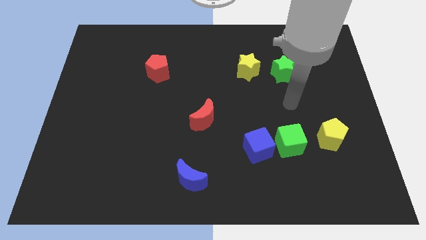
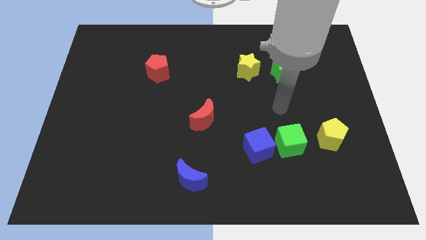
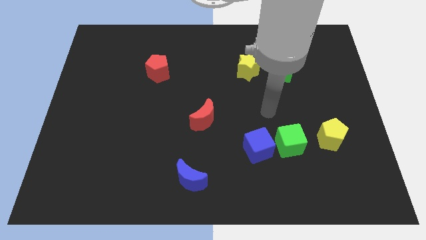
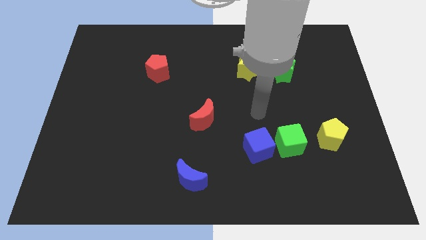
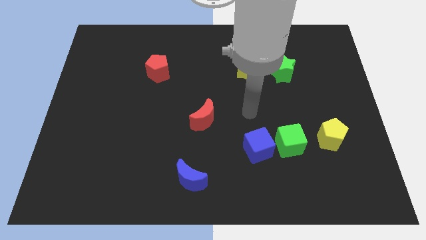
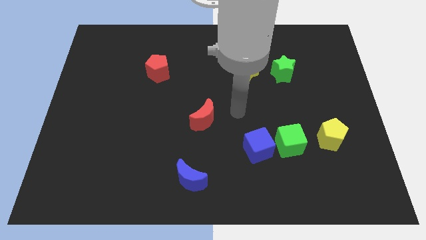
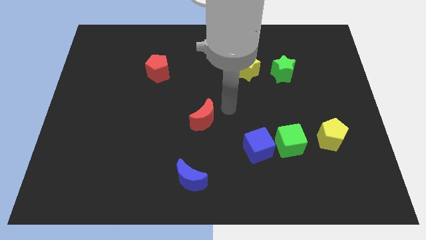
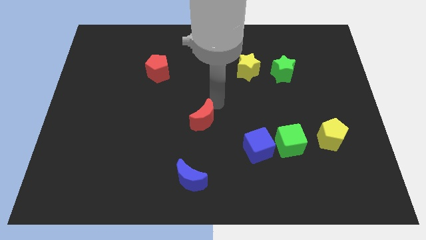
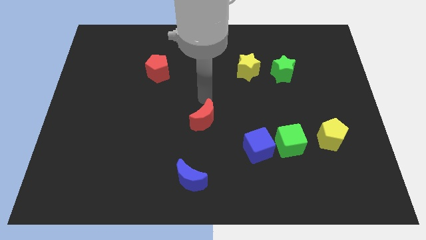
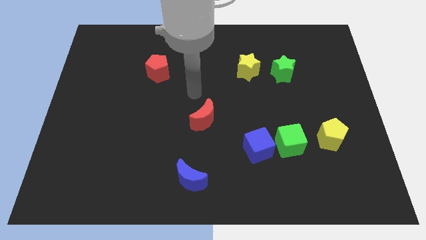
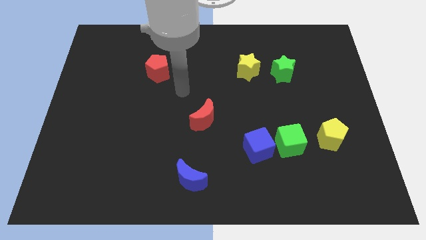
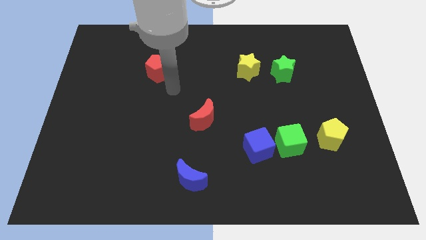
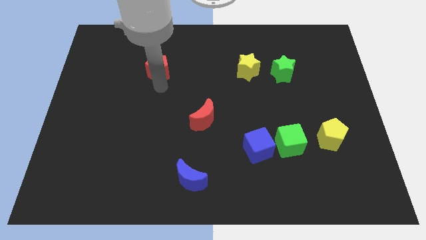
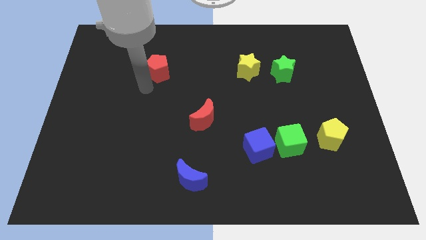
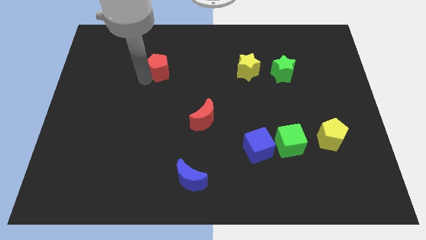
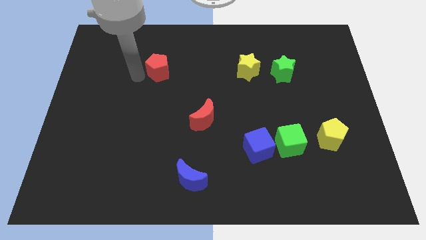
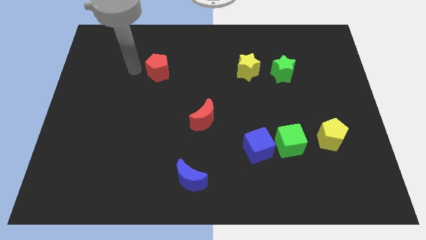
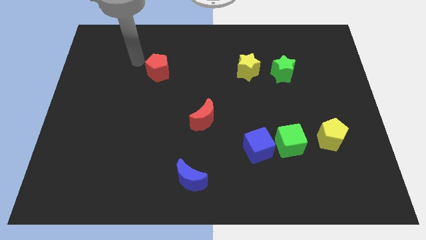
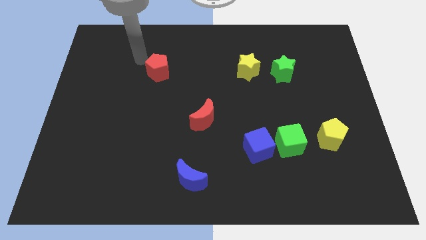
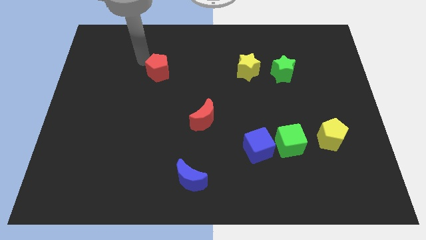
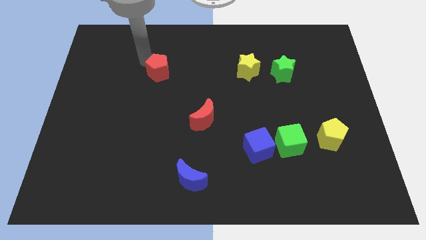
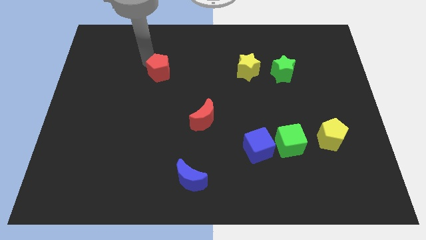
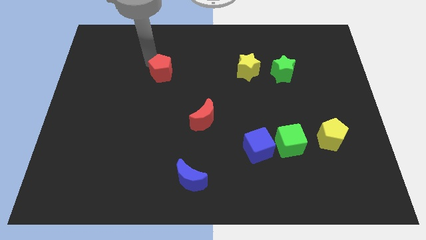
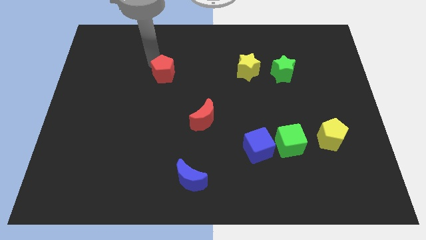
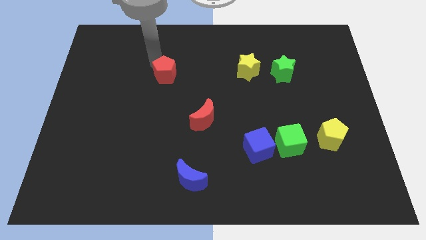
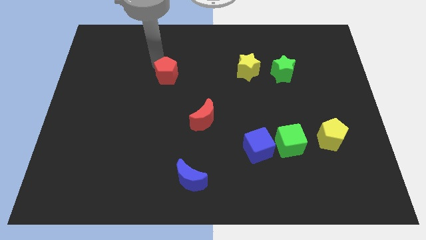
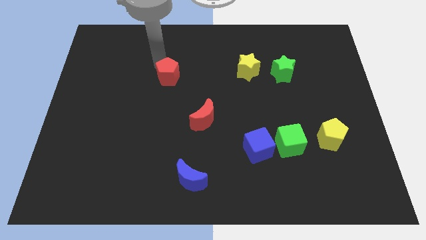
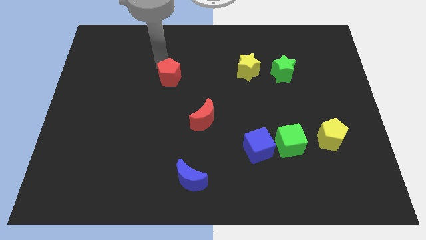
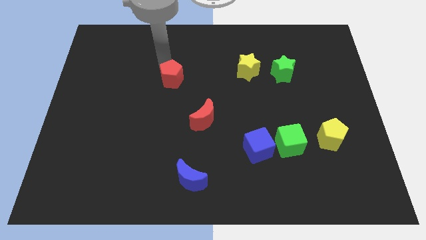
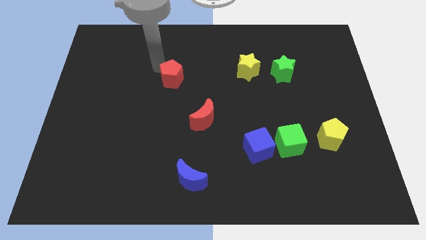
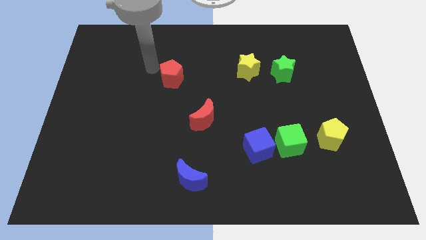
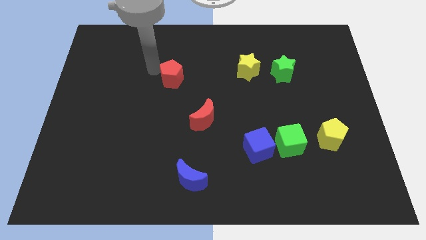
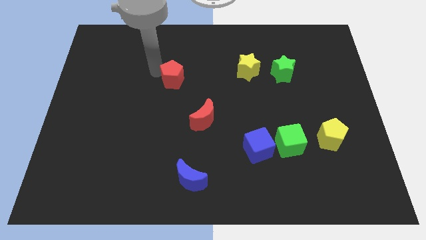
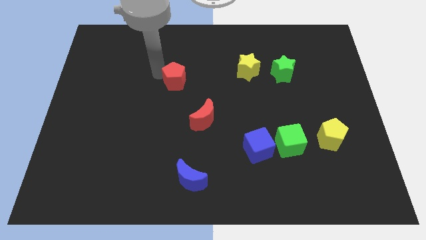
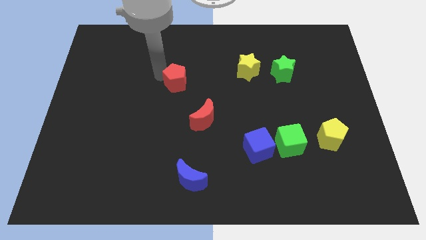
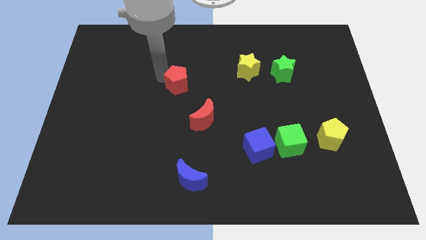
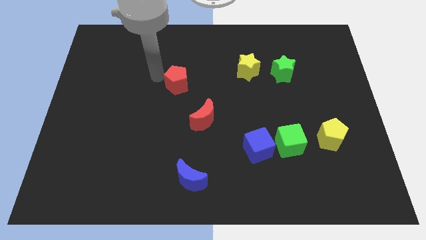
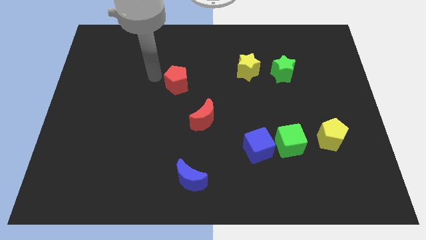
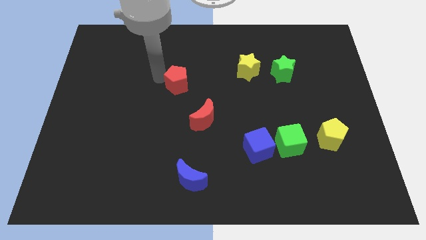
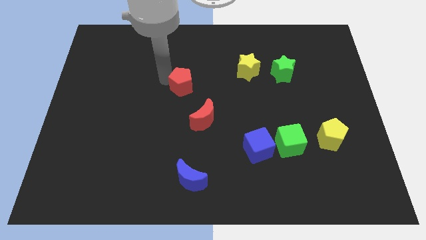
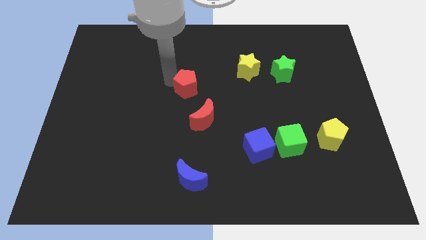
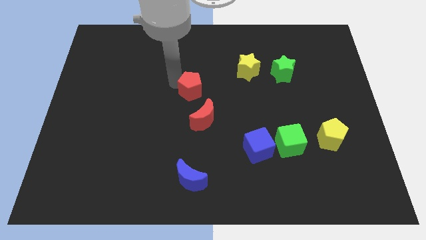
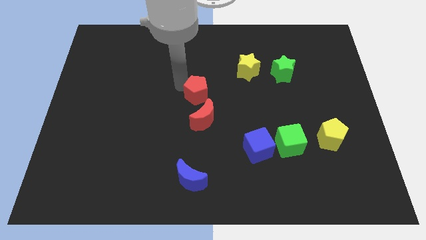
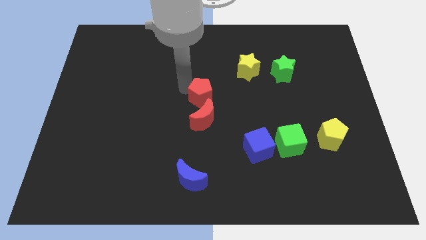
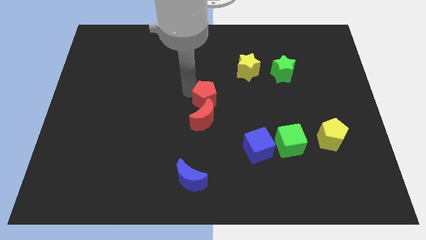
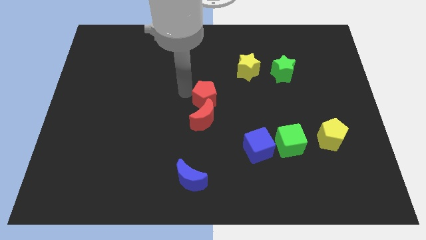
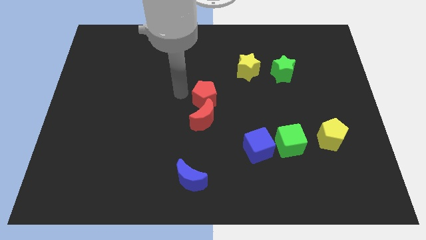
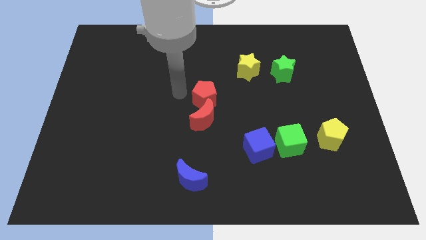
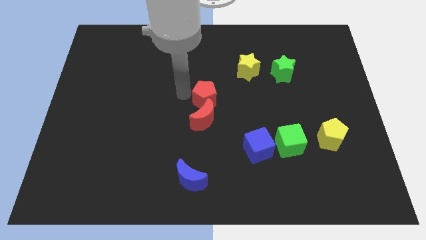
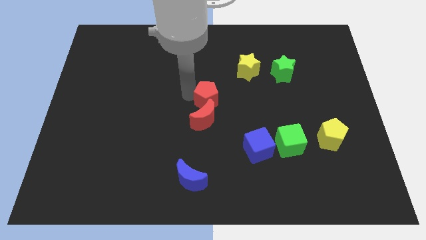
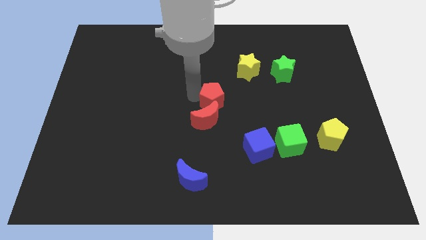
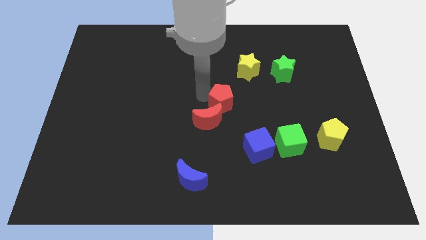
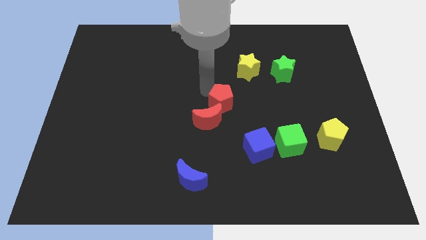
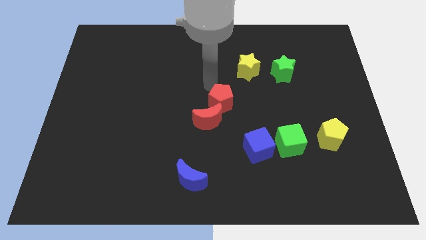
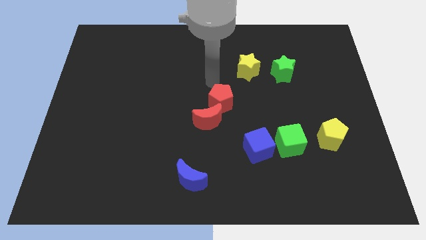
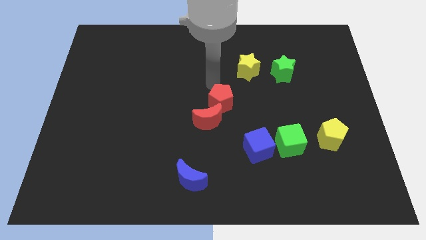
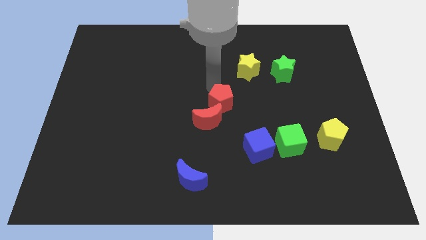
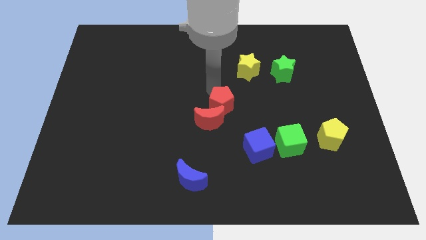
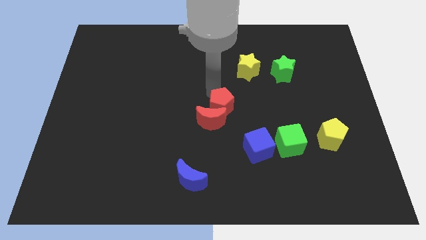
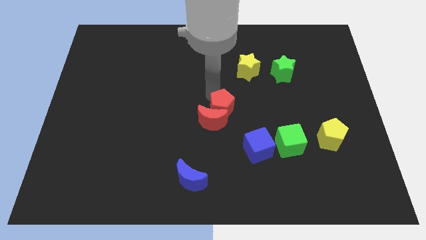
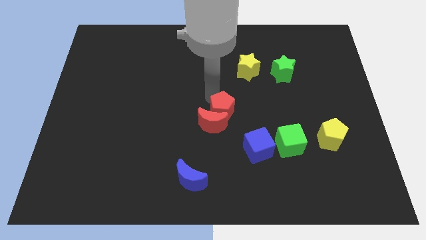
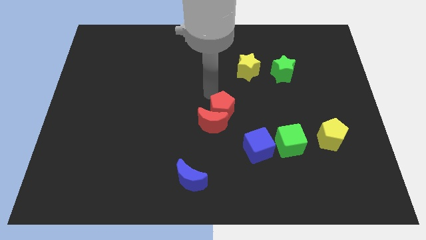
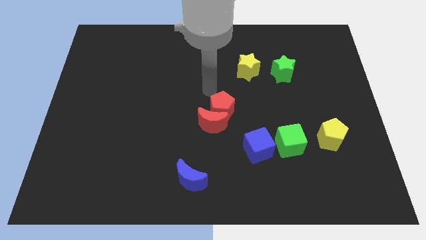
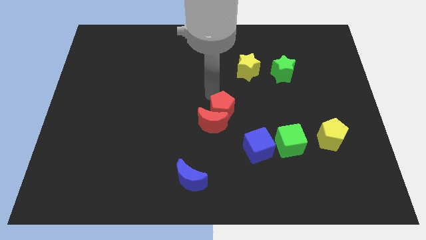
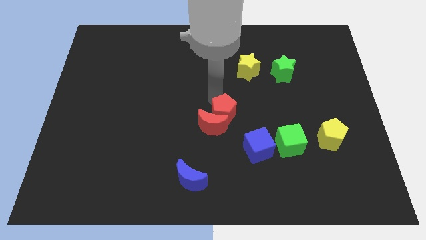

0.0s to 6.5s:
slide the red pentagon diagonally up and to the left of the blue cube
